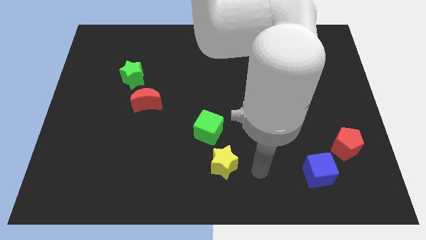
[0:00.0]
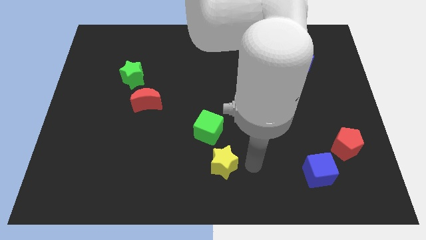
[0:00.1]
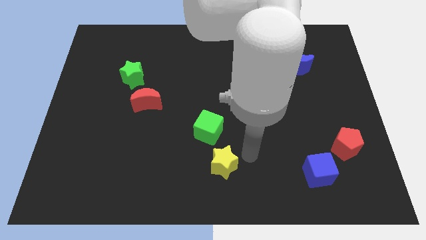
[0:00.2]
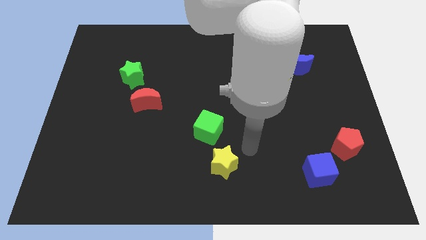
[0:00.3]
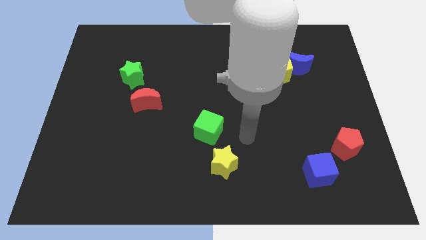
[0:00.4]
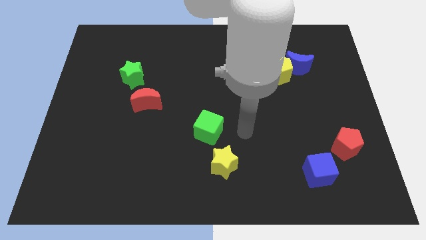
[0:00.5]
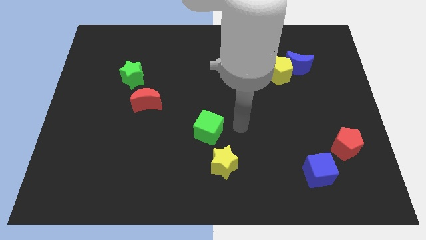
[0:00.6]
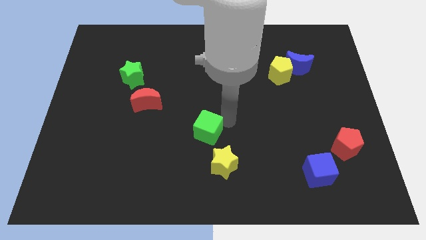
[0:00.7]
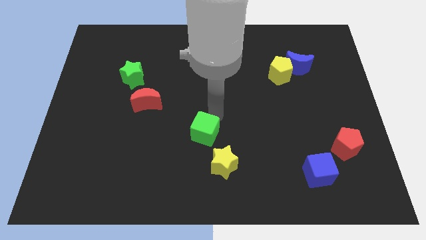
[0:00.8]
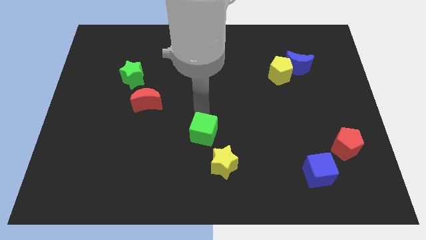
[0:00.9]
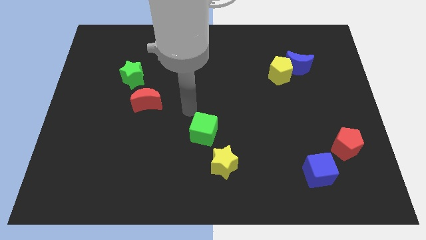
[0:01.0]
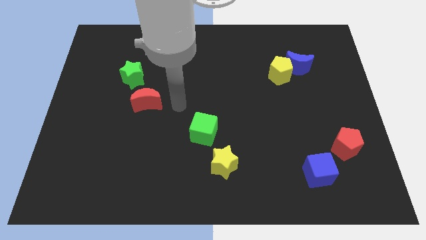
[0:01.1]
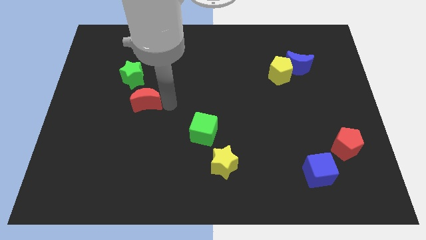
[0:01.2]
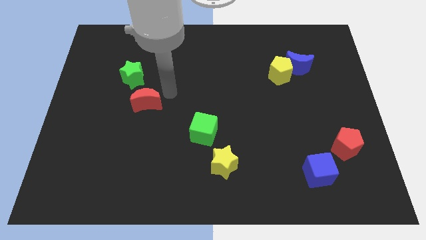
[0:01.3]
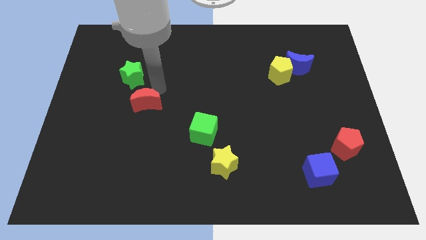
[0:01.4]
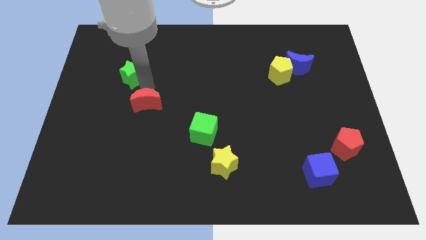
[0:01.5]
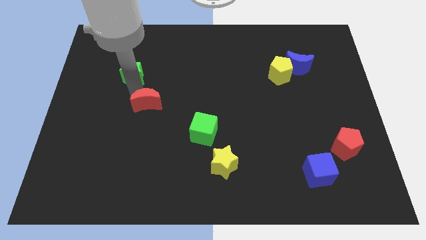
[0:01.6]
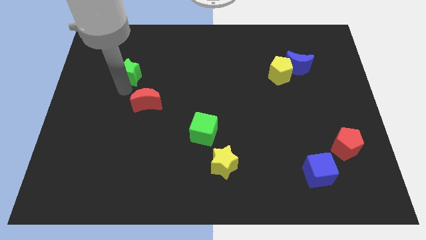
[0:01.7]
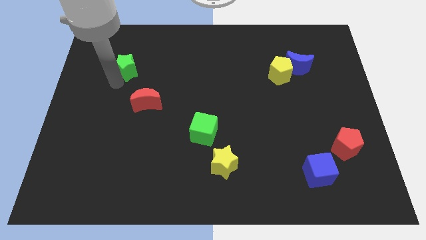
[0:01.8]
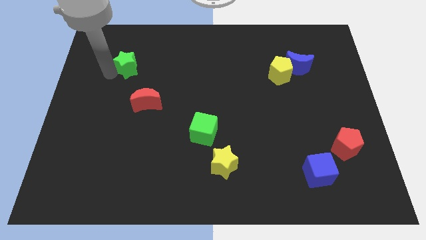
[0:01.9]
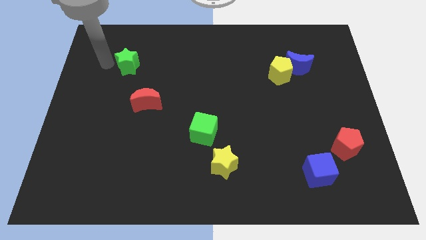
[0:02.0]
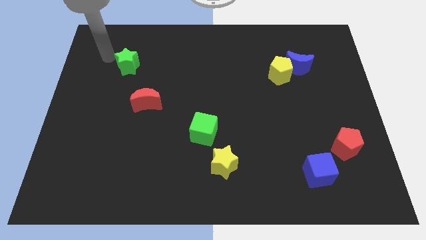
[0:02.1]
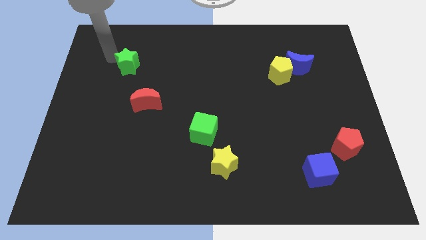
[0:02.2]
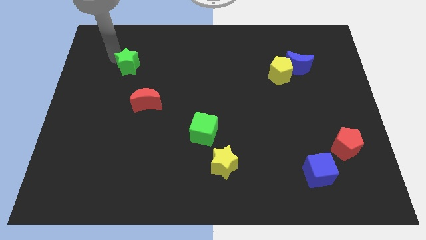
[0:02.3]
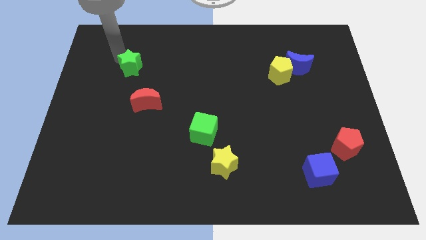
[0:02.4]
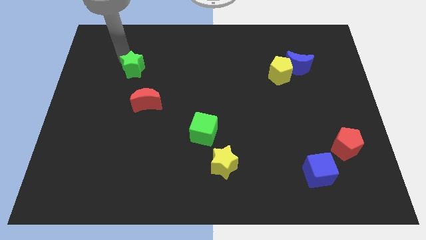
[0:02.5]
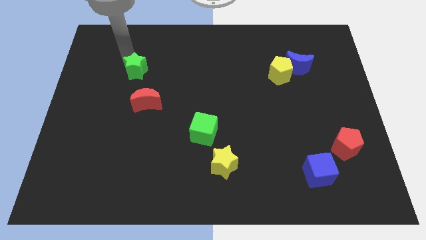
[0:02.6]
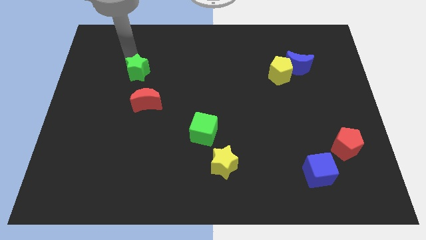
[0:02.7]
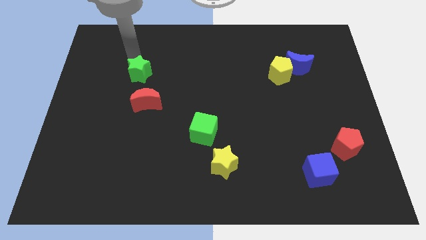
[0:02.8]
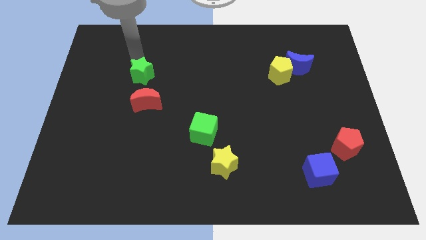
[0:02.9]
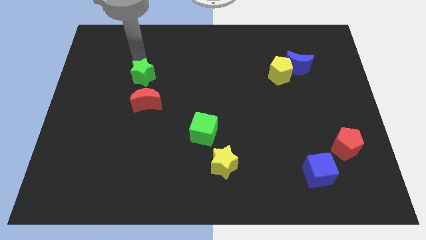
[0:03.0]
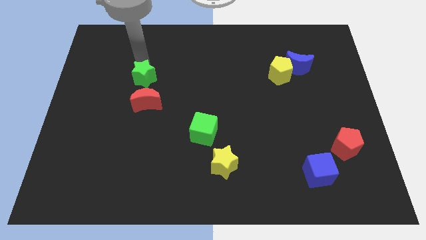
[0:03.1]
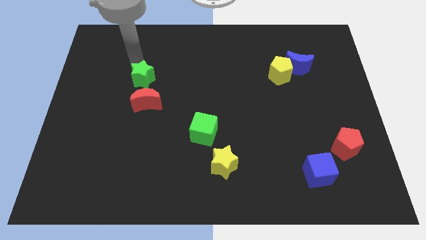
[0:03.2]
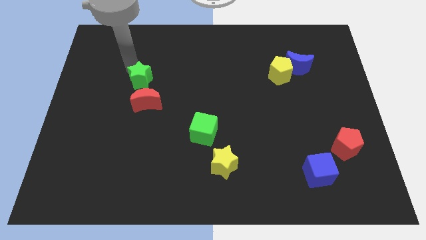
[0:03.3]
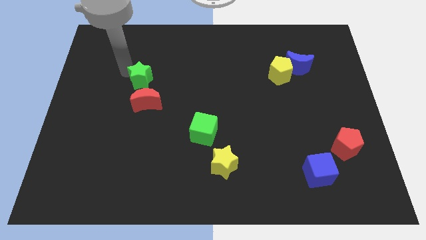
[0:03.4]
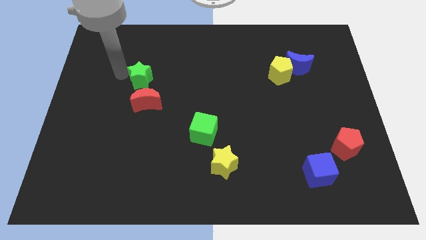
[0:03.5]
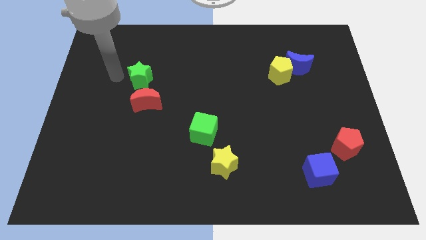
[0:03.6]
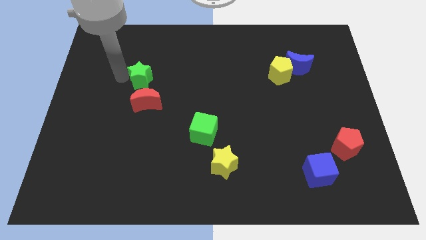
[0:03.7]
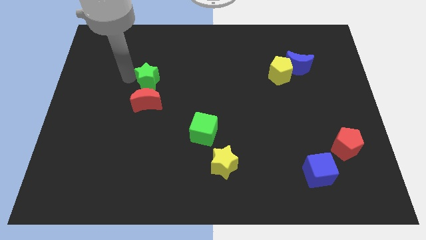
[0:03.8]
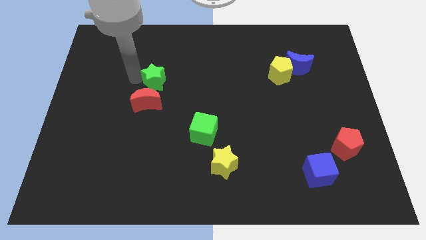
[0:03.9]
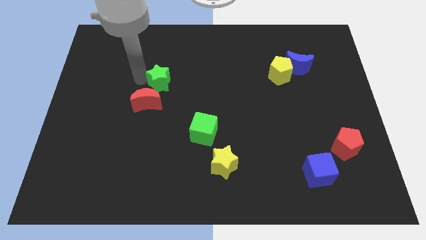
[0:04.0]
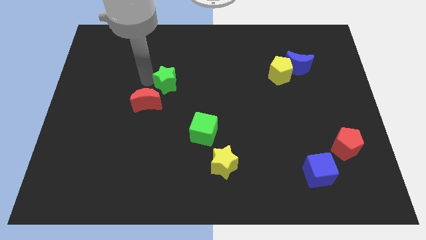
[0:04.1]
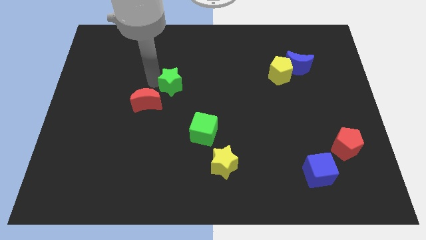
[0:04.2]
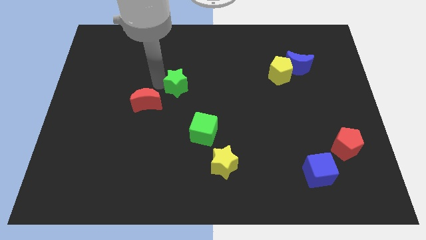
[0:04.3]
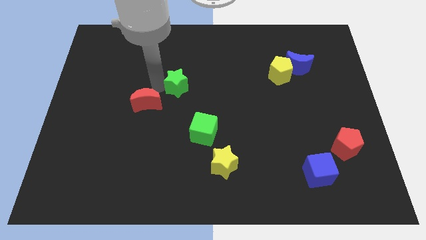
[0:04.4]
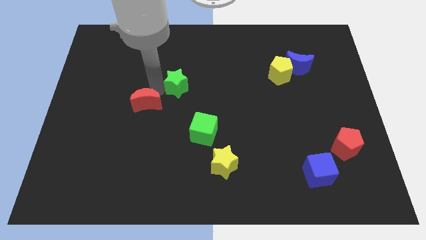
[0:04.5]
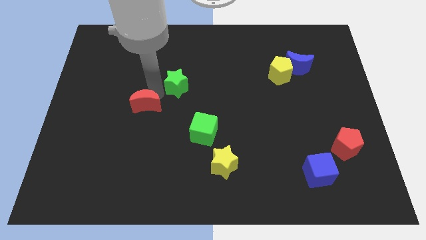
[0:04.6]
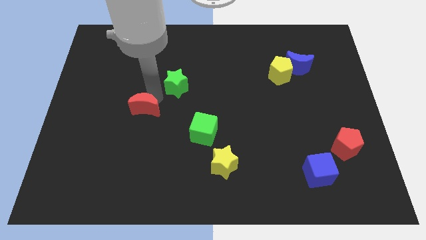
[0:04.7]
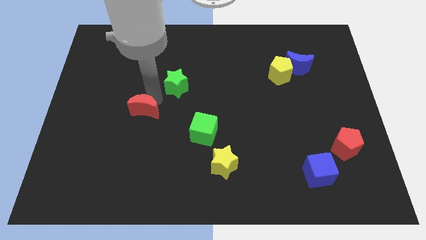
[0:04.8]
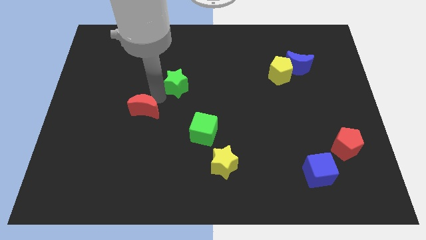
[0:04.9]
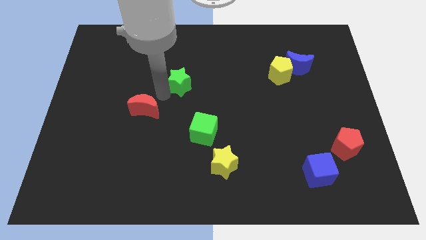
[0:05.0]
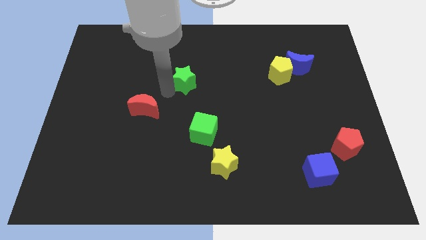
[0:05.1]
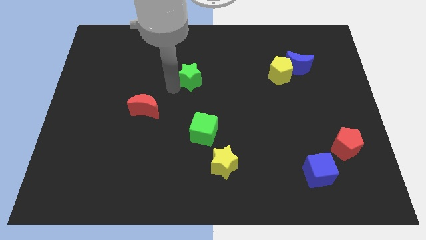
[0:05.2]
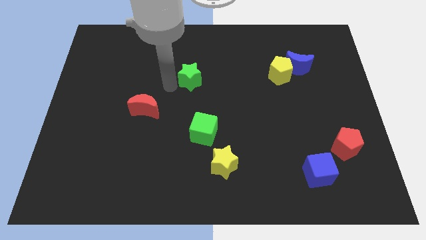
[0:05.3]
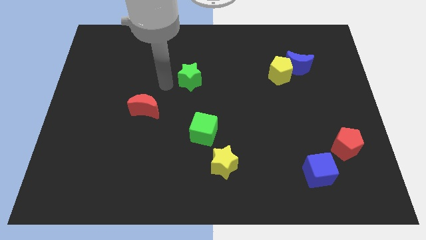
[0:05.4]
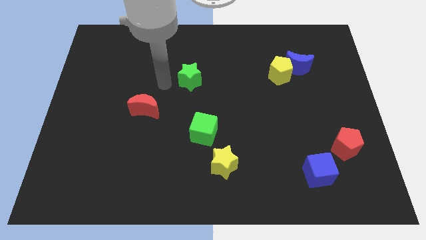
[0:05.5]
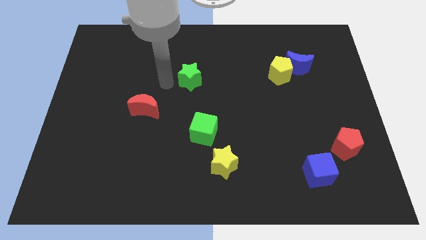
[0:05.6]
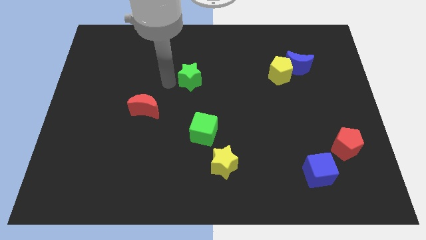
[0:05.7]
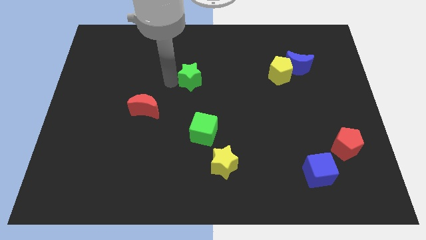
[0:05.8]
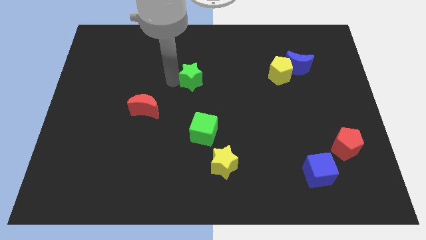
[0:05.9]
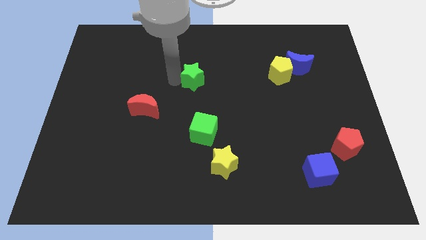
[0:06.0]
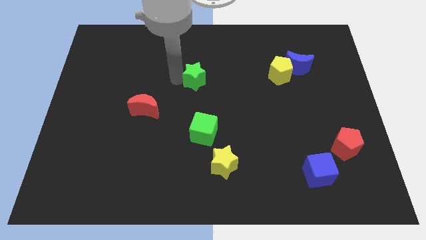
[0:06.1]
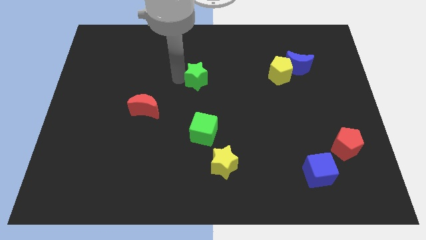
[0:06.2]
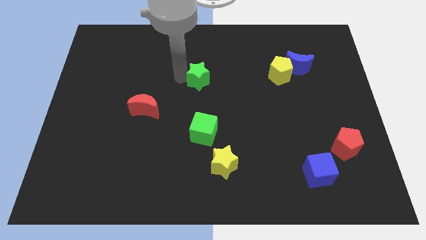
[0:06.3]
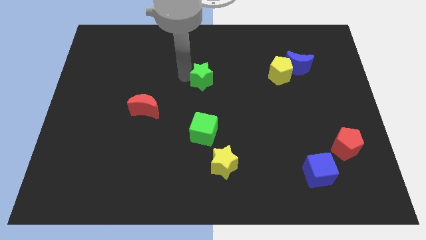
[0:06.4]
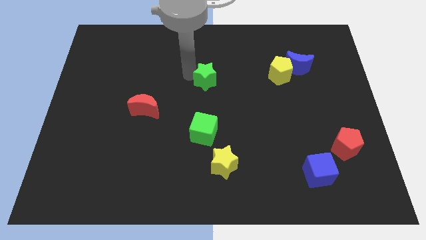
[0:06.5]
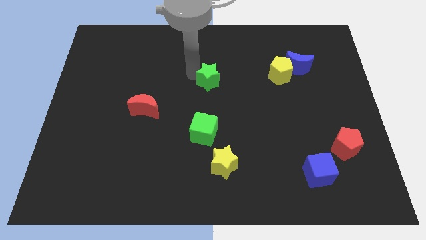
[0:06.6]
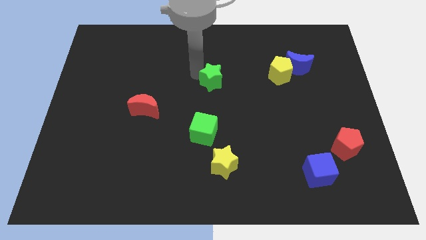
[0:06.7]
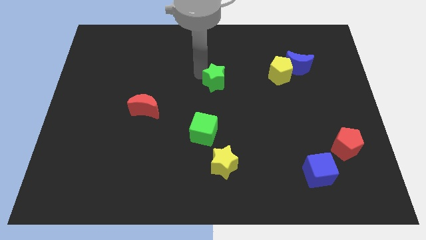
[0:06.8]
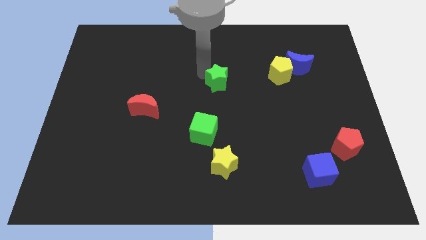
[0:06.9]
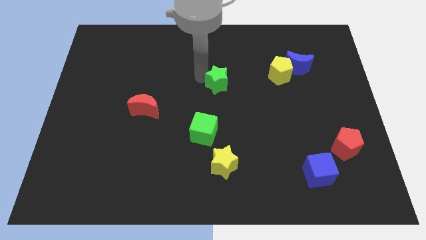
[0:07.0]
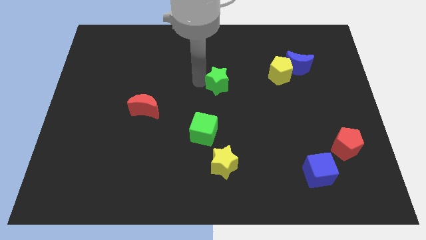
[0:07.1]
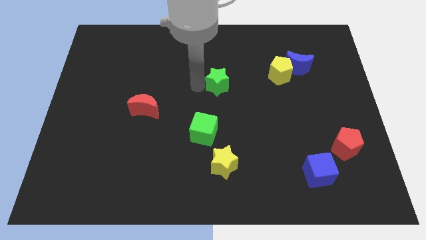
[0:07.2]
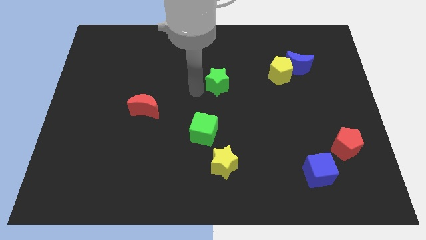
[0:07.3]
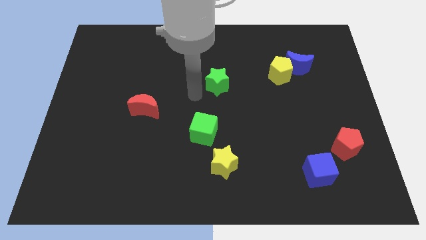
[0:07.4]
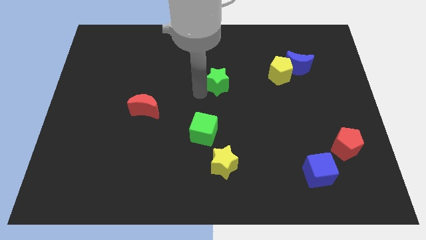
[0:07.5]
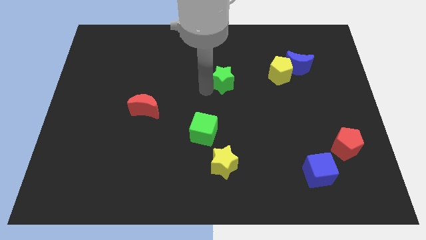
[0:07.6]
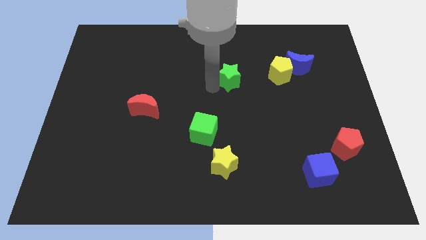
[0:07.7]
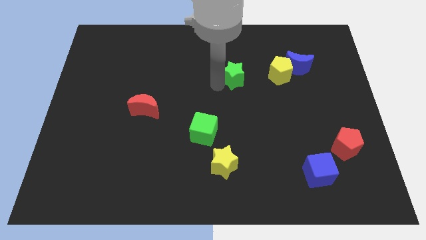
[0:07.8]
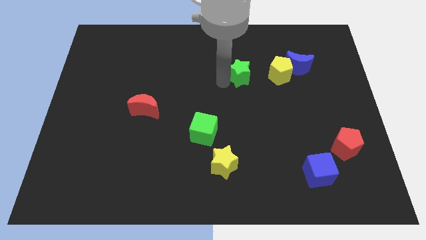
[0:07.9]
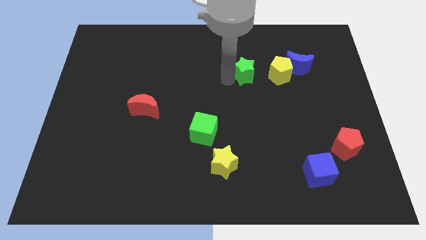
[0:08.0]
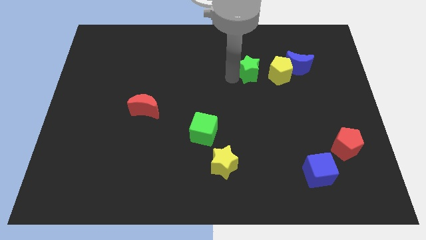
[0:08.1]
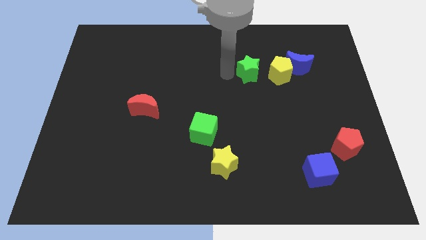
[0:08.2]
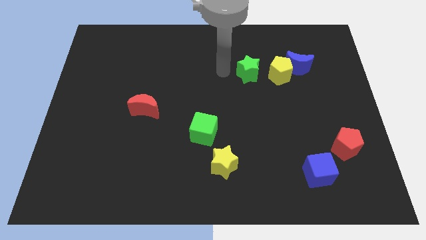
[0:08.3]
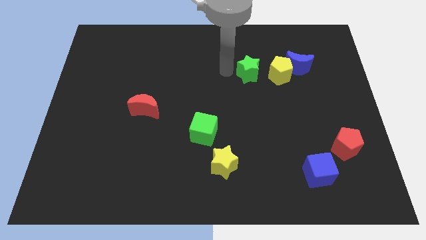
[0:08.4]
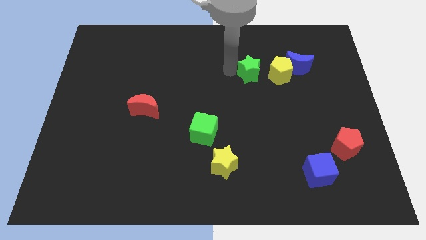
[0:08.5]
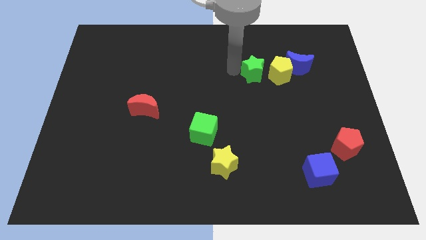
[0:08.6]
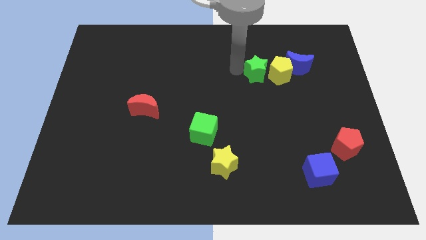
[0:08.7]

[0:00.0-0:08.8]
move the green star next to the yellow pentagon
